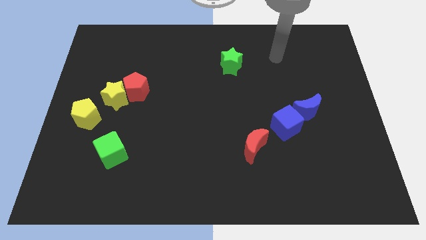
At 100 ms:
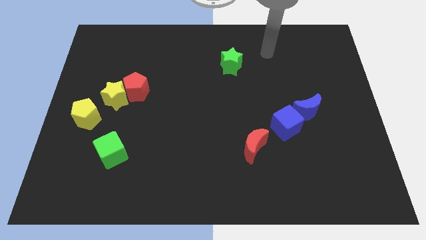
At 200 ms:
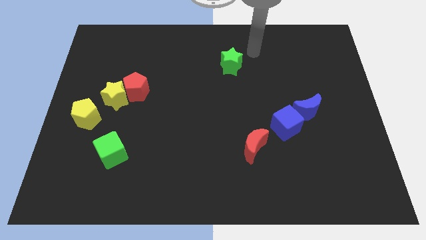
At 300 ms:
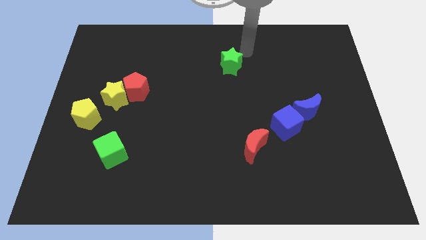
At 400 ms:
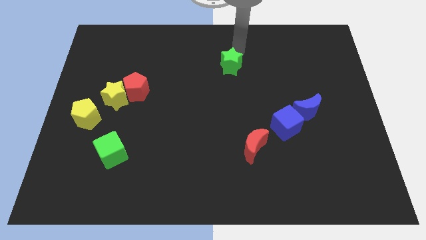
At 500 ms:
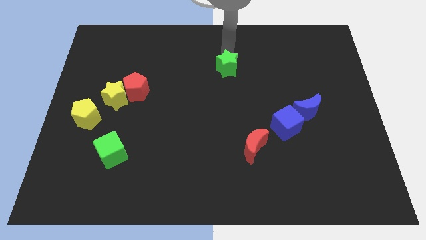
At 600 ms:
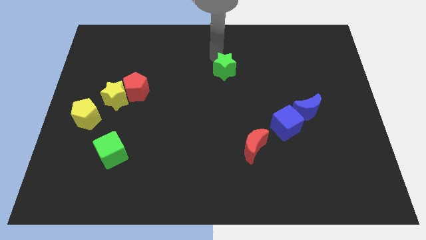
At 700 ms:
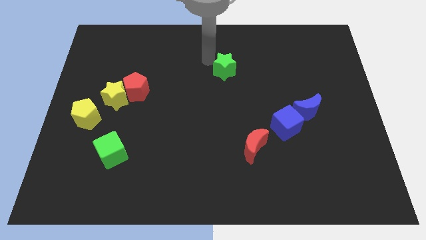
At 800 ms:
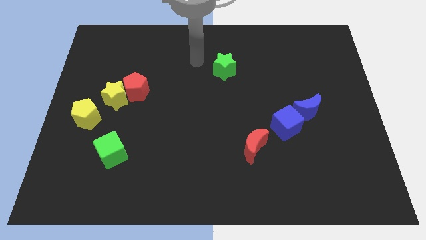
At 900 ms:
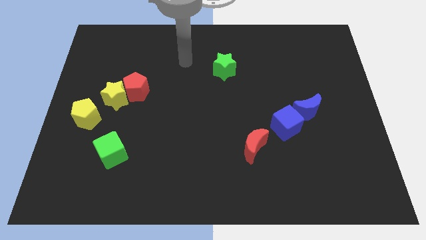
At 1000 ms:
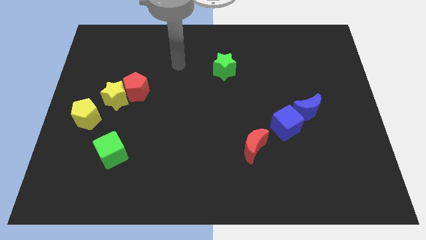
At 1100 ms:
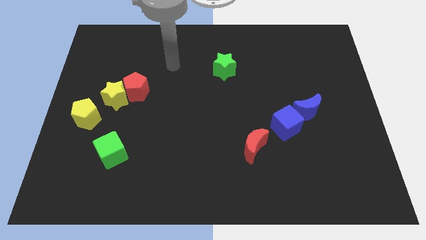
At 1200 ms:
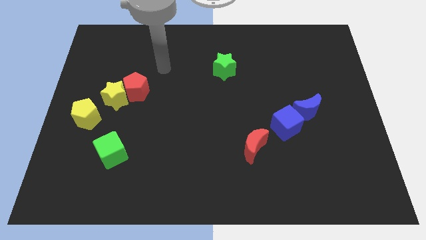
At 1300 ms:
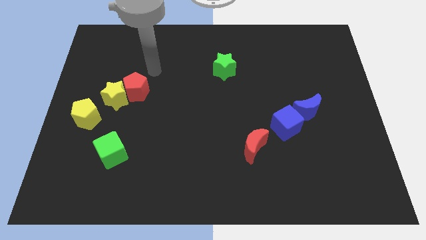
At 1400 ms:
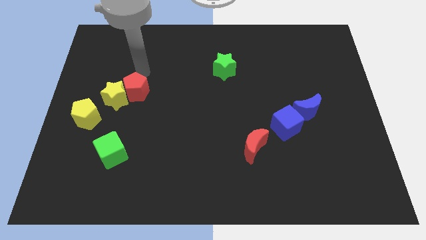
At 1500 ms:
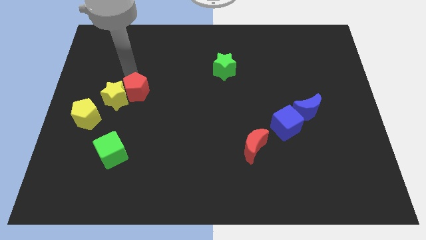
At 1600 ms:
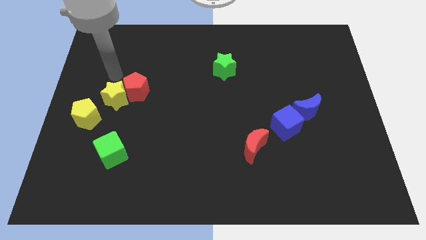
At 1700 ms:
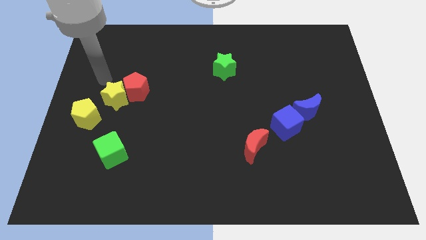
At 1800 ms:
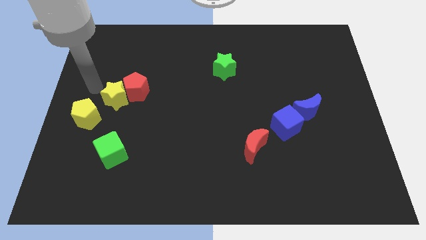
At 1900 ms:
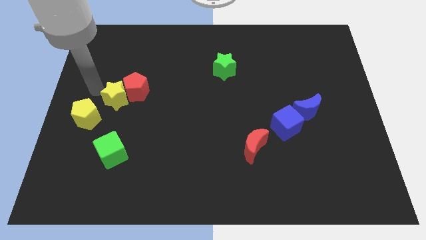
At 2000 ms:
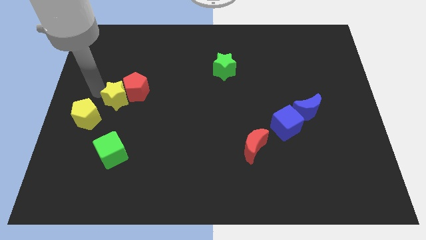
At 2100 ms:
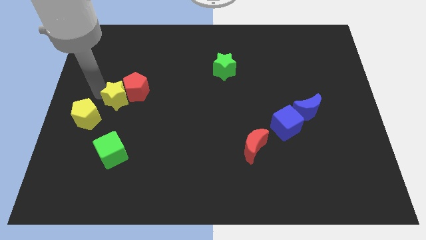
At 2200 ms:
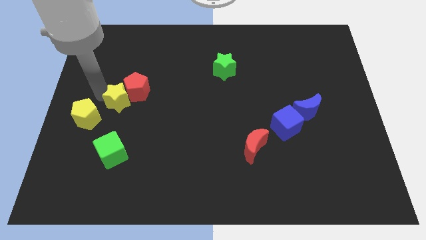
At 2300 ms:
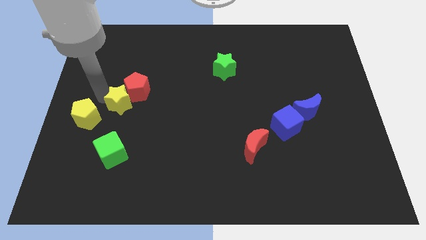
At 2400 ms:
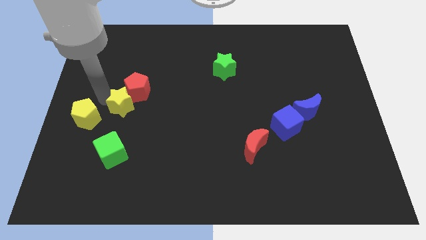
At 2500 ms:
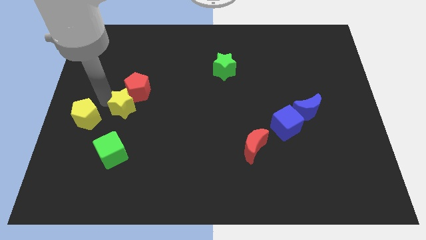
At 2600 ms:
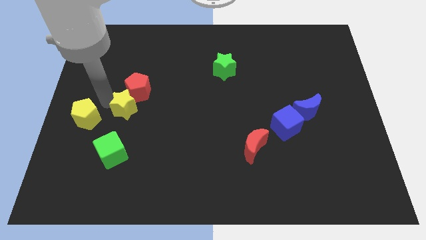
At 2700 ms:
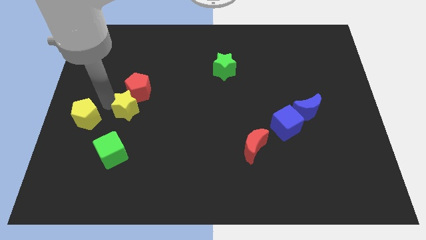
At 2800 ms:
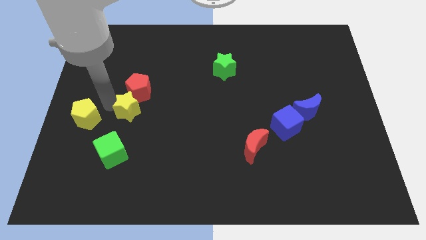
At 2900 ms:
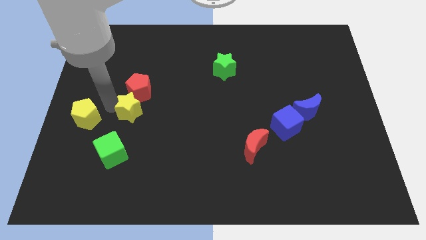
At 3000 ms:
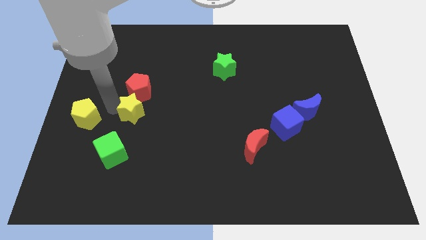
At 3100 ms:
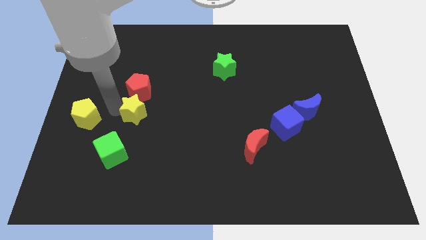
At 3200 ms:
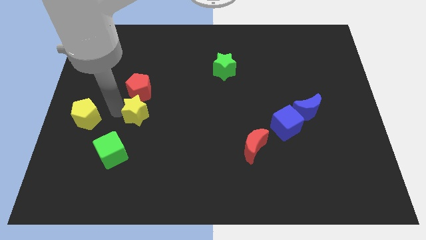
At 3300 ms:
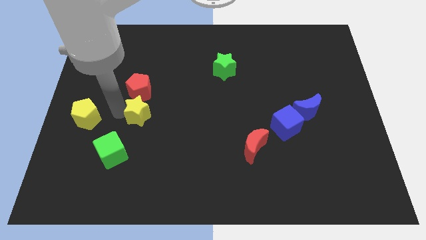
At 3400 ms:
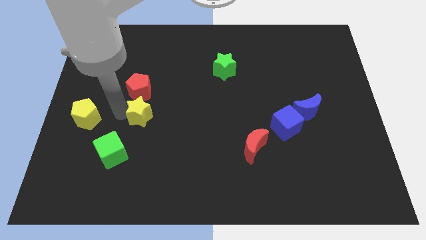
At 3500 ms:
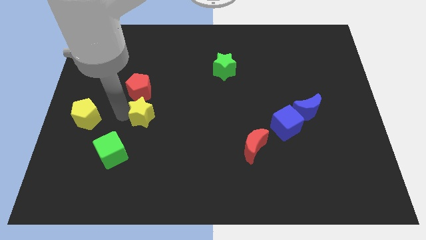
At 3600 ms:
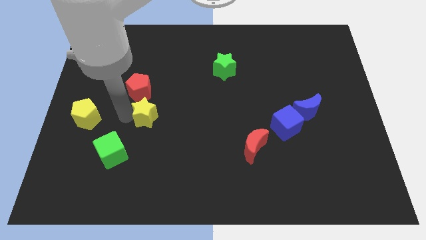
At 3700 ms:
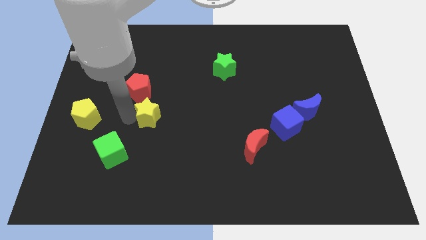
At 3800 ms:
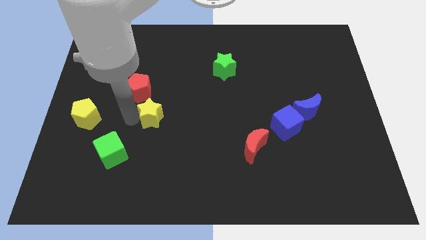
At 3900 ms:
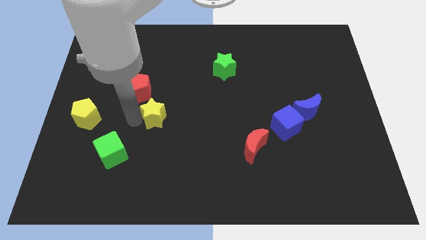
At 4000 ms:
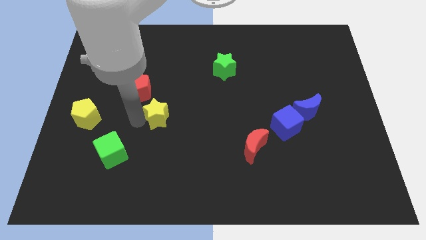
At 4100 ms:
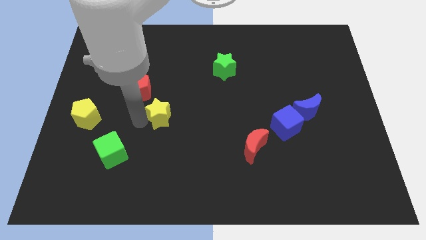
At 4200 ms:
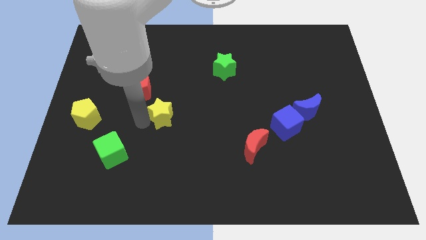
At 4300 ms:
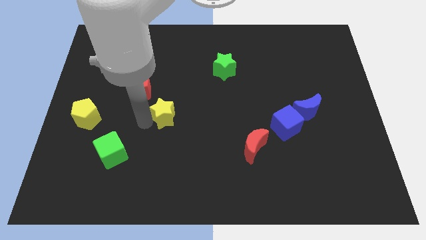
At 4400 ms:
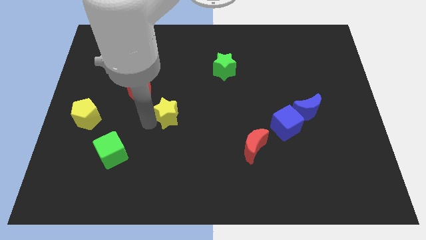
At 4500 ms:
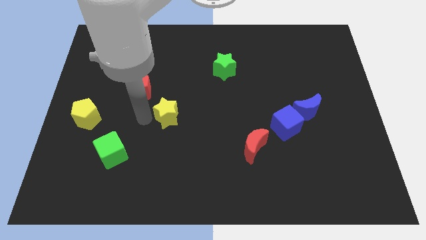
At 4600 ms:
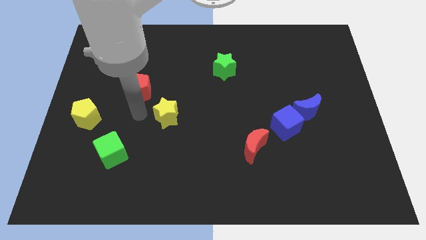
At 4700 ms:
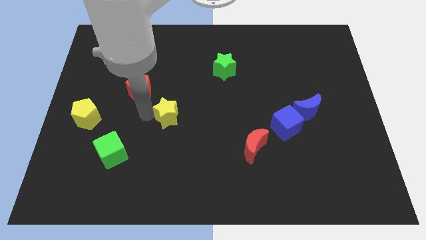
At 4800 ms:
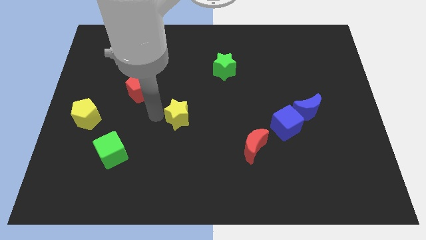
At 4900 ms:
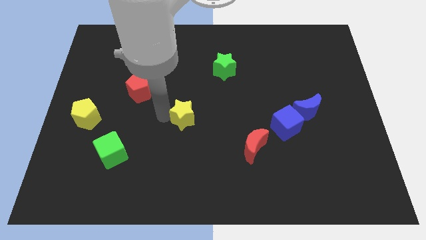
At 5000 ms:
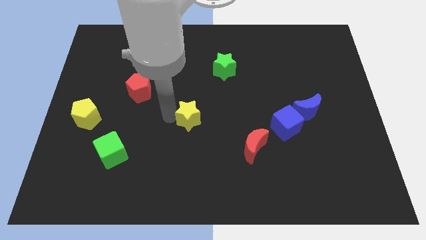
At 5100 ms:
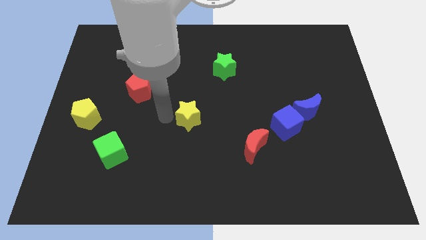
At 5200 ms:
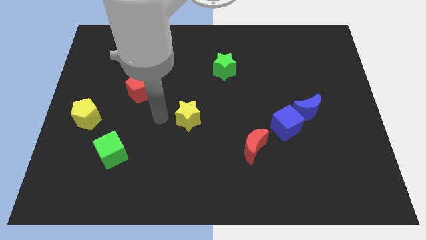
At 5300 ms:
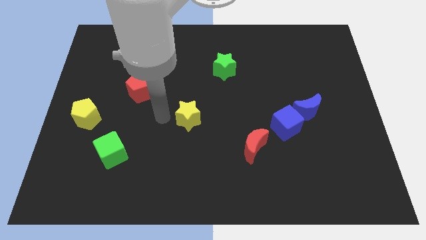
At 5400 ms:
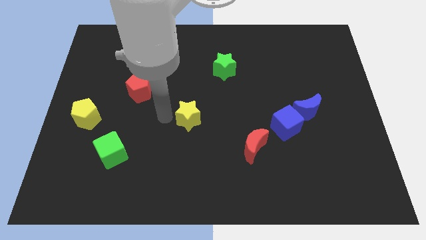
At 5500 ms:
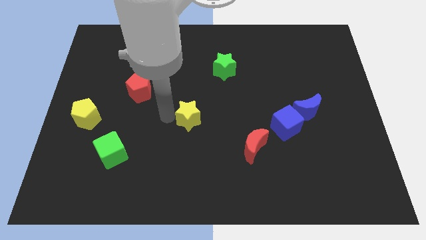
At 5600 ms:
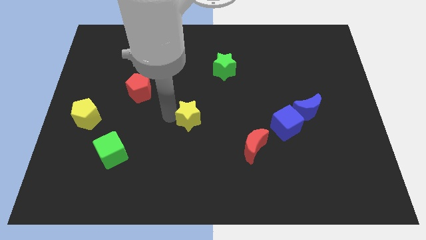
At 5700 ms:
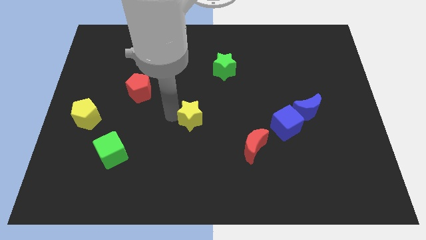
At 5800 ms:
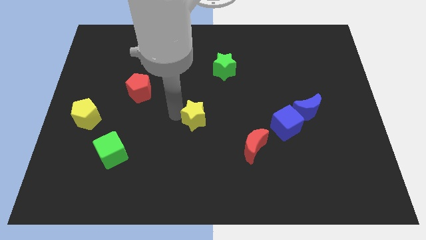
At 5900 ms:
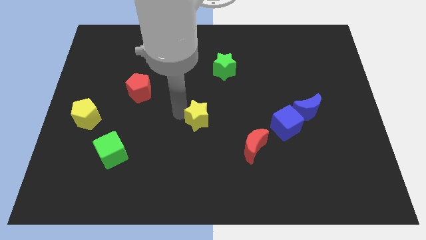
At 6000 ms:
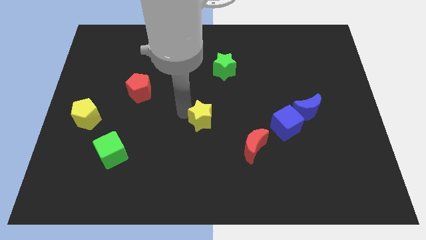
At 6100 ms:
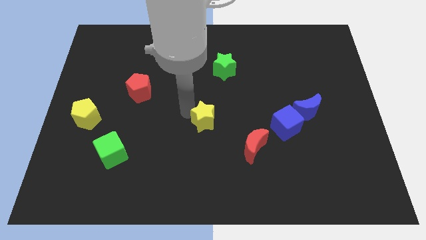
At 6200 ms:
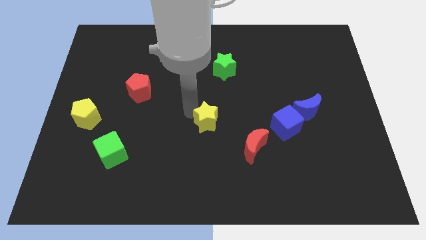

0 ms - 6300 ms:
slide the yellow star to the top left side of the red moon

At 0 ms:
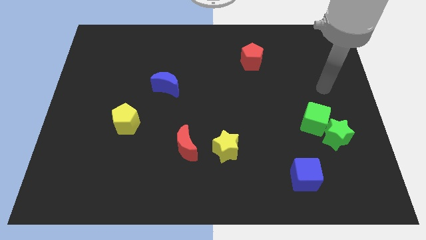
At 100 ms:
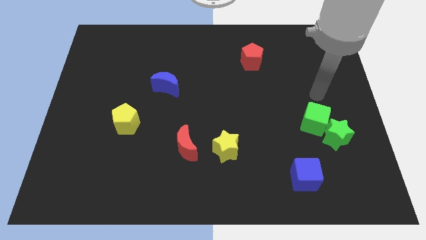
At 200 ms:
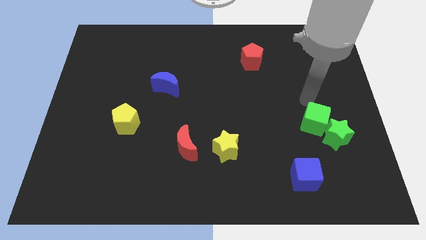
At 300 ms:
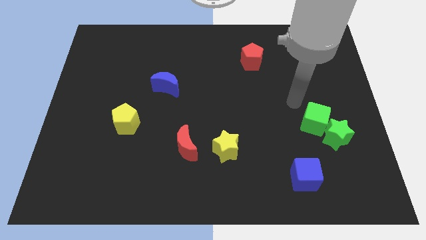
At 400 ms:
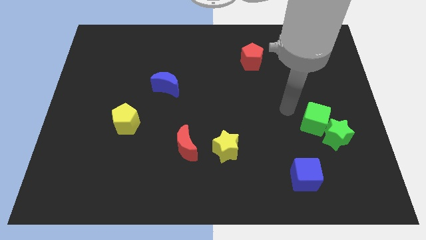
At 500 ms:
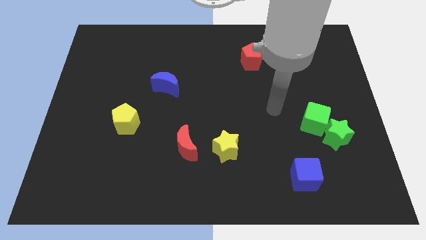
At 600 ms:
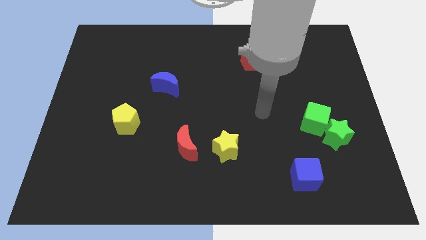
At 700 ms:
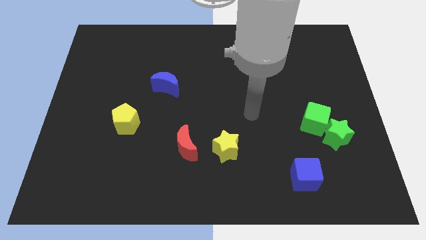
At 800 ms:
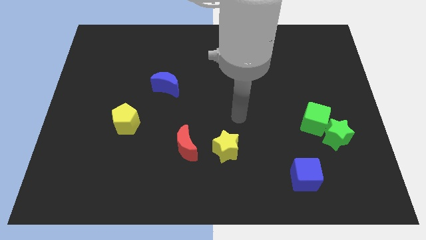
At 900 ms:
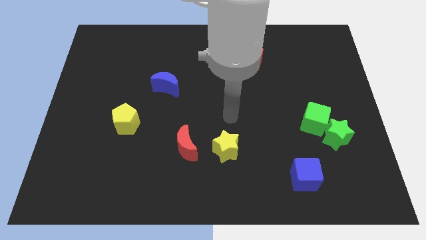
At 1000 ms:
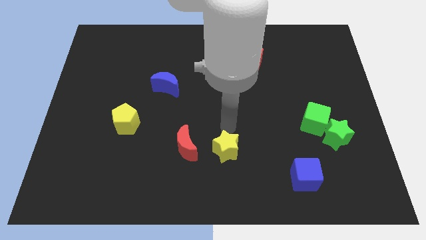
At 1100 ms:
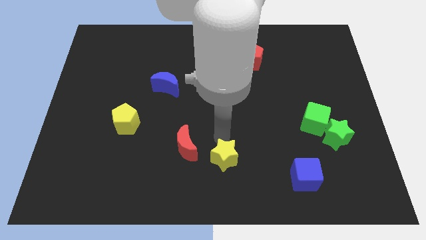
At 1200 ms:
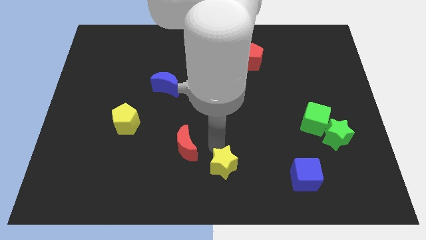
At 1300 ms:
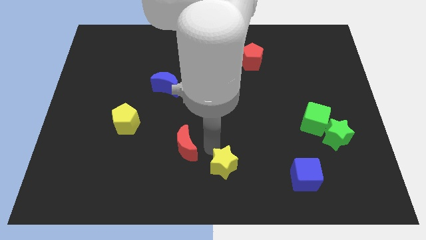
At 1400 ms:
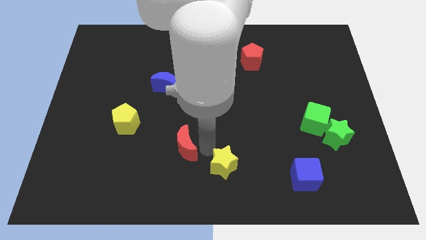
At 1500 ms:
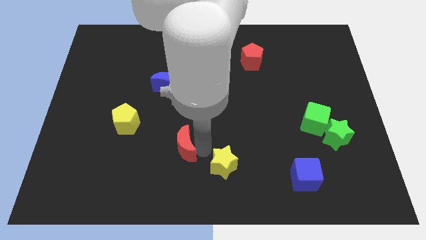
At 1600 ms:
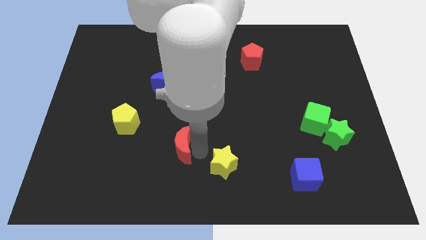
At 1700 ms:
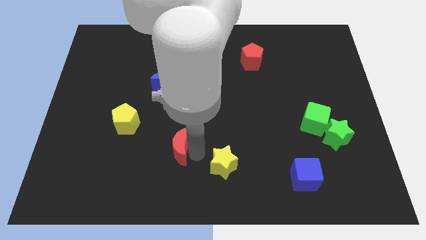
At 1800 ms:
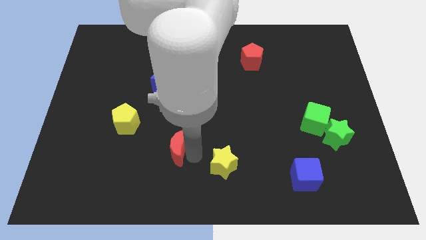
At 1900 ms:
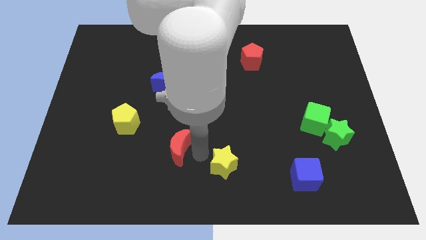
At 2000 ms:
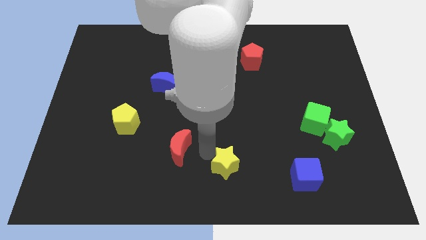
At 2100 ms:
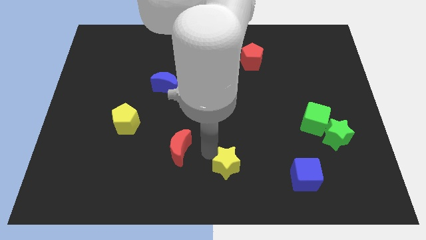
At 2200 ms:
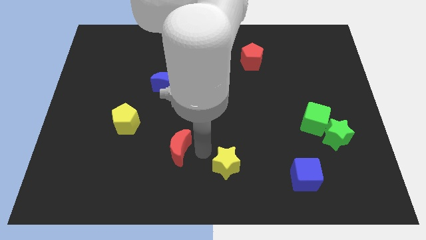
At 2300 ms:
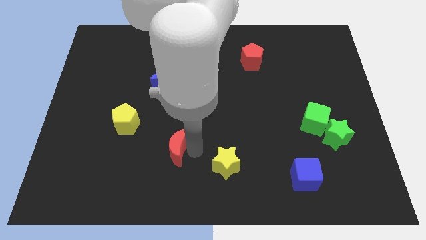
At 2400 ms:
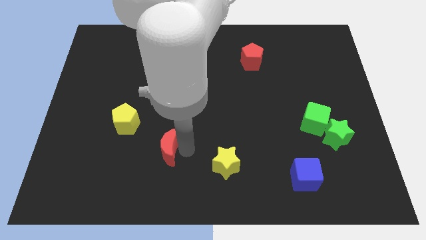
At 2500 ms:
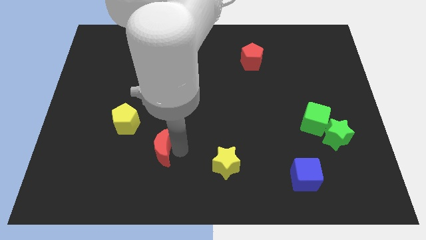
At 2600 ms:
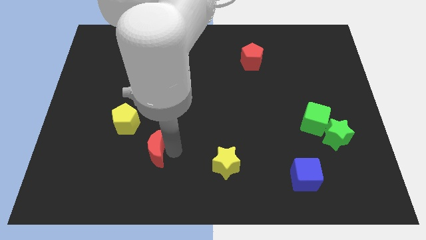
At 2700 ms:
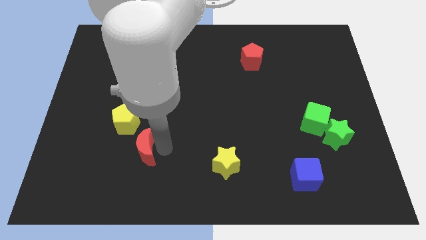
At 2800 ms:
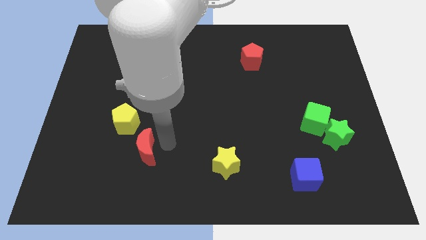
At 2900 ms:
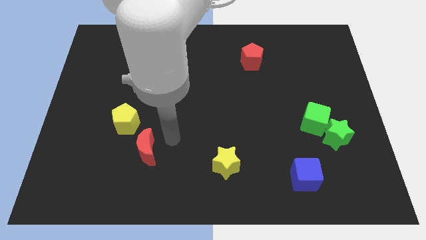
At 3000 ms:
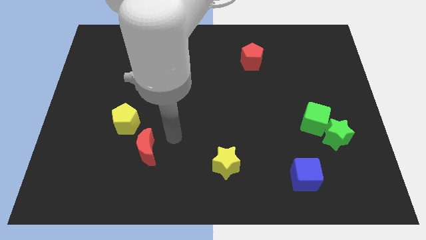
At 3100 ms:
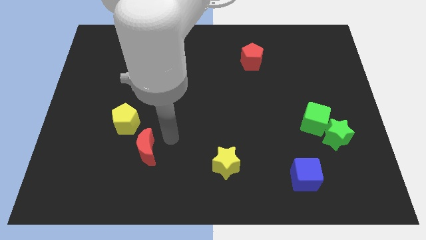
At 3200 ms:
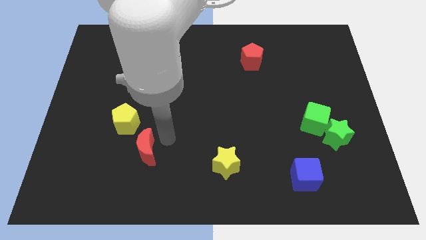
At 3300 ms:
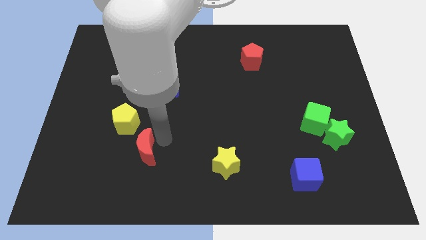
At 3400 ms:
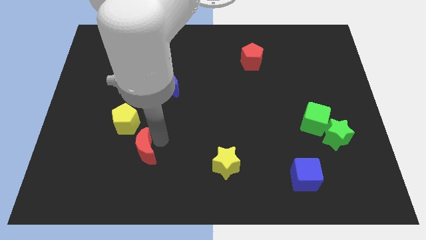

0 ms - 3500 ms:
move the red moon to the bottom side of the yellow pentagon
